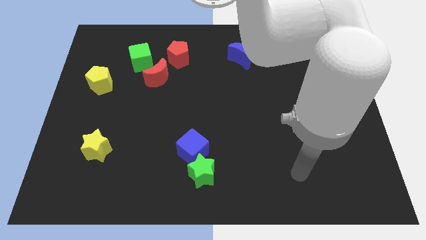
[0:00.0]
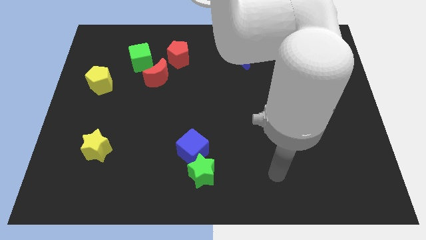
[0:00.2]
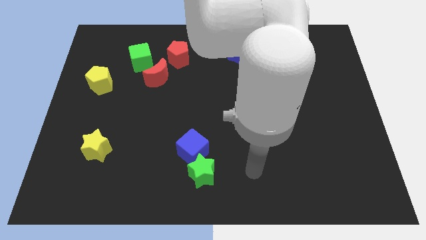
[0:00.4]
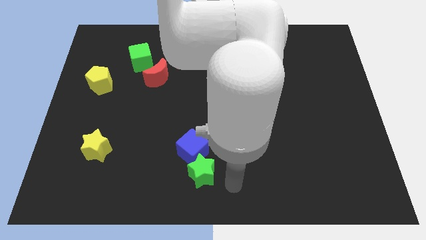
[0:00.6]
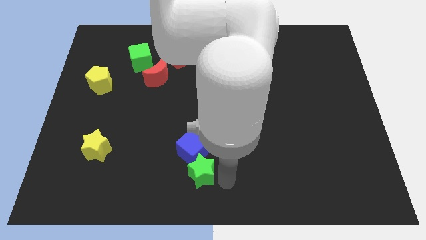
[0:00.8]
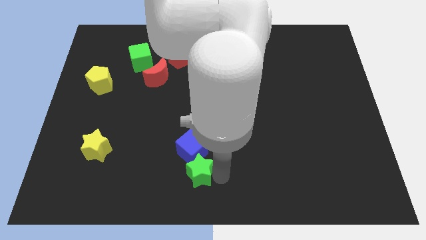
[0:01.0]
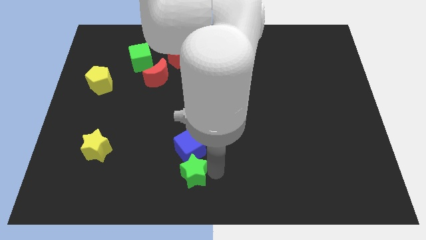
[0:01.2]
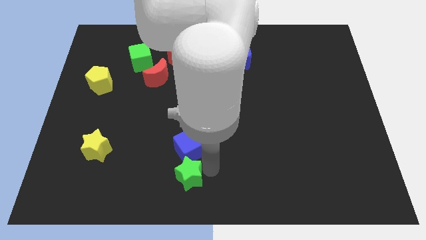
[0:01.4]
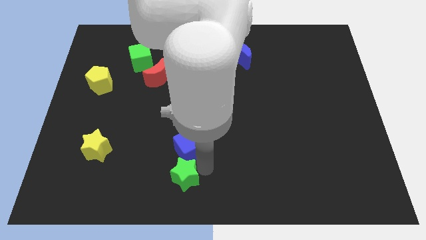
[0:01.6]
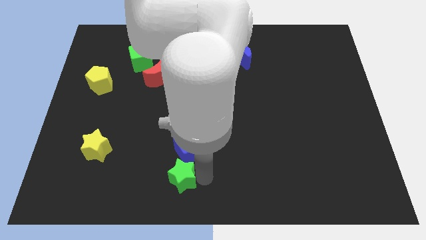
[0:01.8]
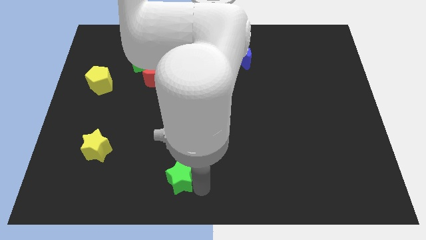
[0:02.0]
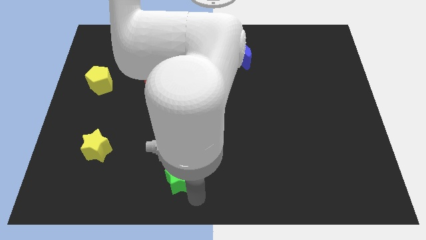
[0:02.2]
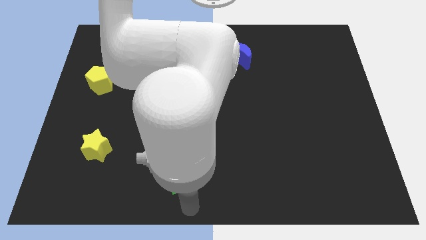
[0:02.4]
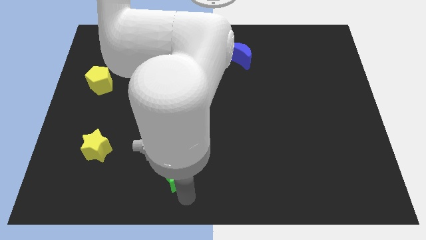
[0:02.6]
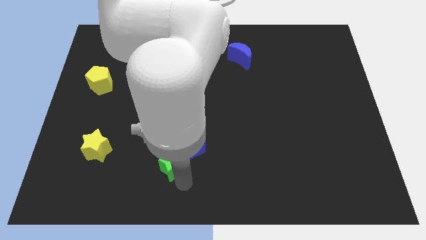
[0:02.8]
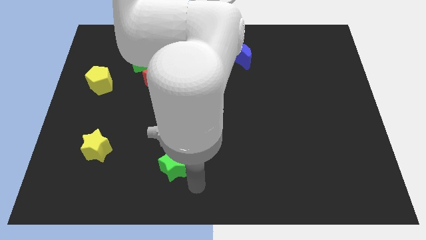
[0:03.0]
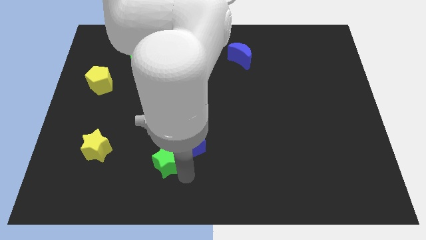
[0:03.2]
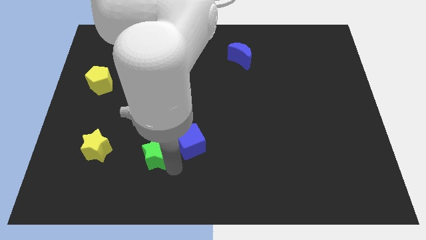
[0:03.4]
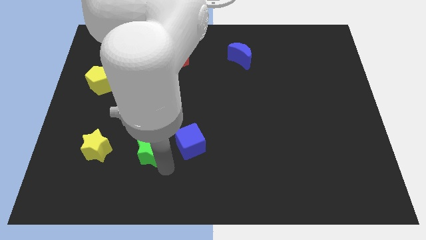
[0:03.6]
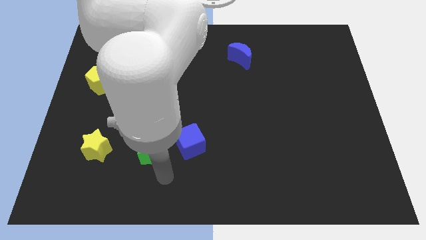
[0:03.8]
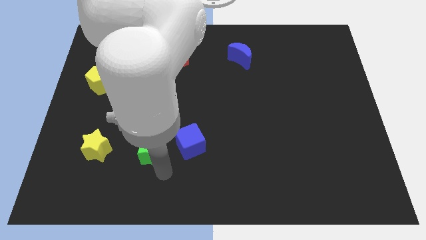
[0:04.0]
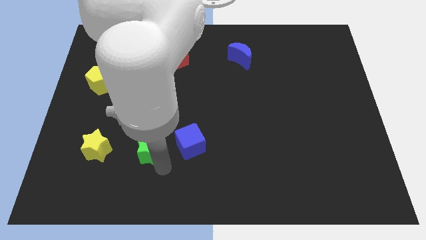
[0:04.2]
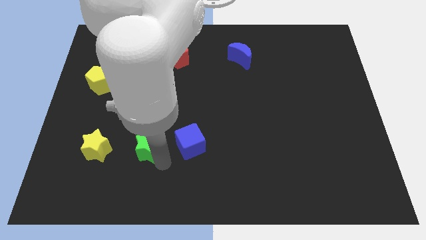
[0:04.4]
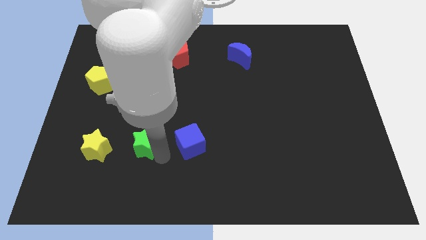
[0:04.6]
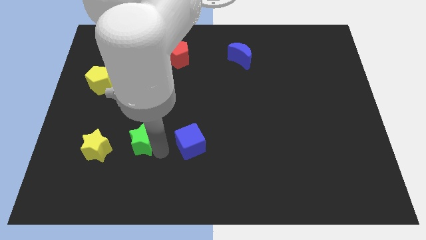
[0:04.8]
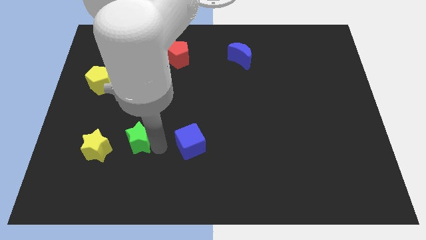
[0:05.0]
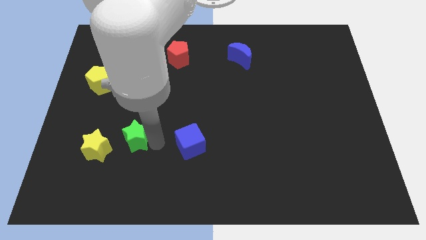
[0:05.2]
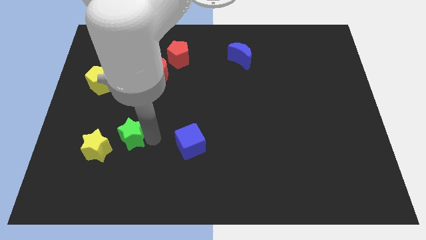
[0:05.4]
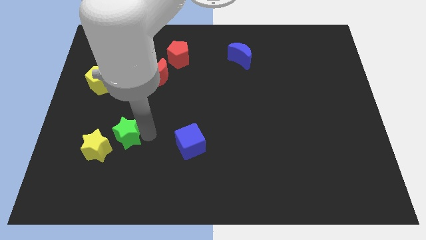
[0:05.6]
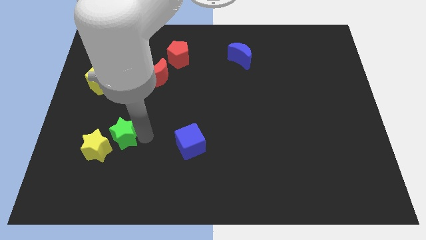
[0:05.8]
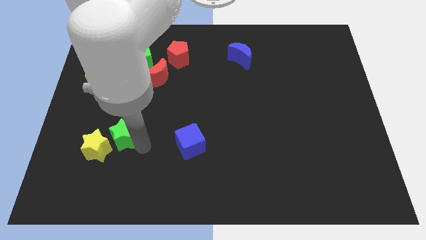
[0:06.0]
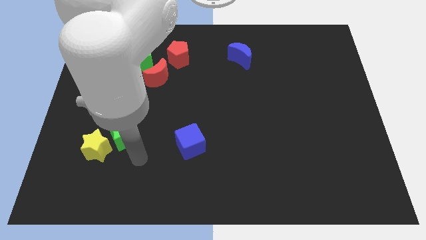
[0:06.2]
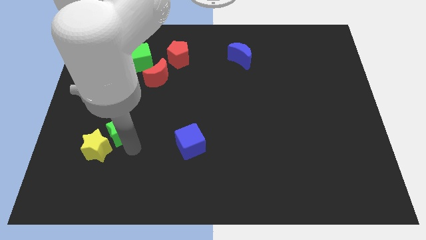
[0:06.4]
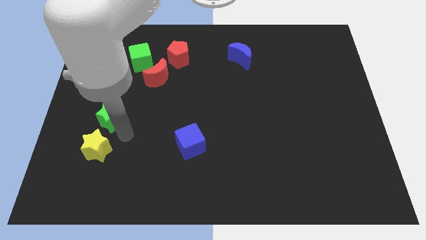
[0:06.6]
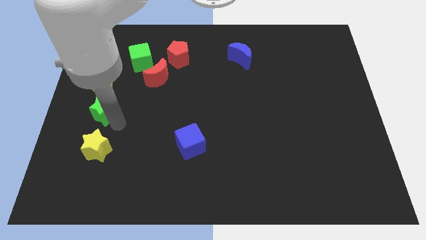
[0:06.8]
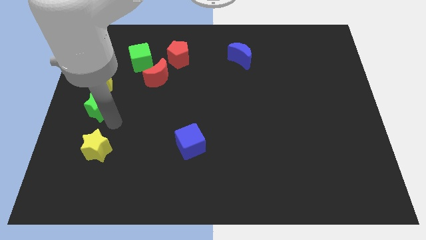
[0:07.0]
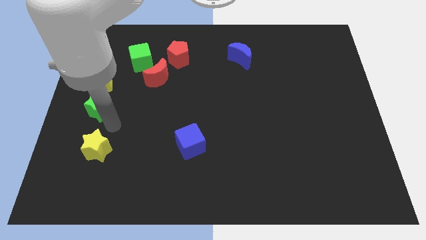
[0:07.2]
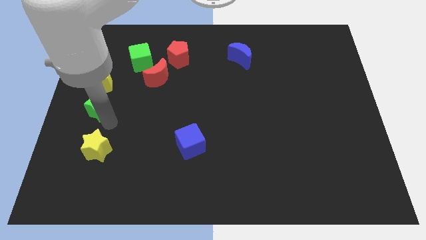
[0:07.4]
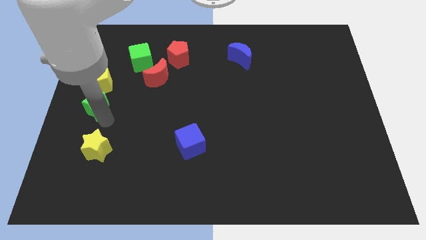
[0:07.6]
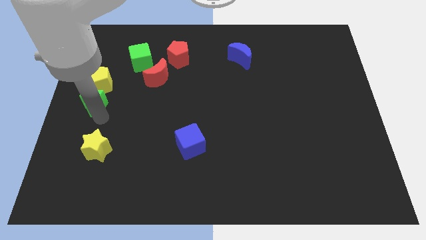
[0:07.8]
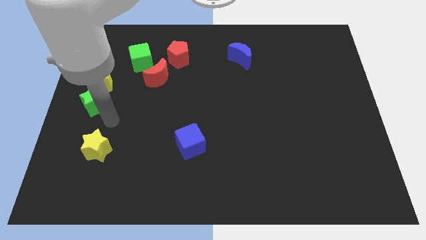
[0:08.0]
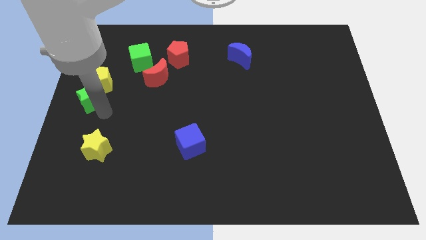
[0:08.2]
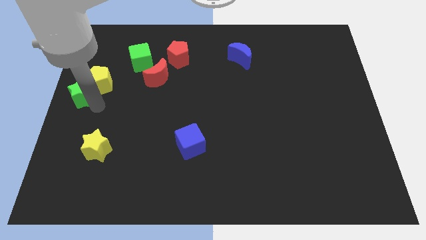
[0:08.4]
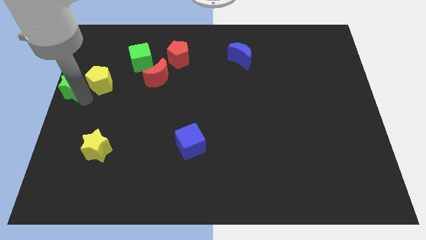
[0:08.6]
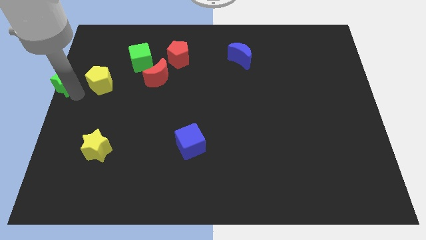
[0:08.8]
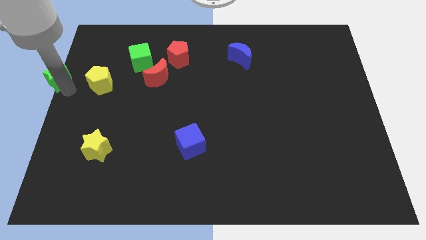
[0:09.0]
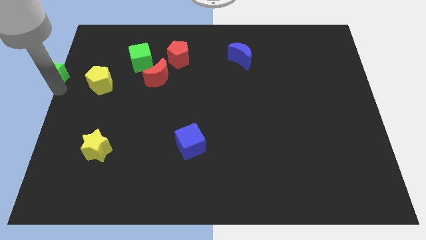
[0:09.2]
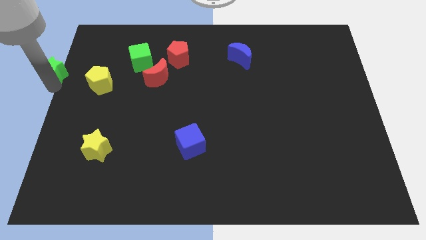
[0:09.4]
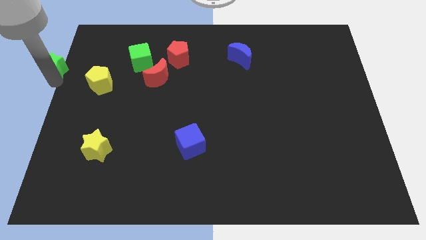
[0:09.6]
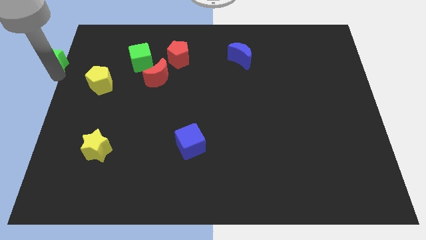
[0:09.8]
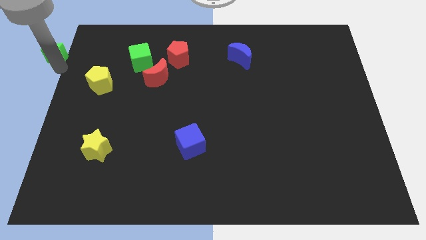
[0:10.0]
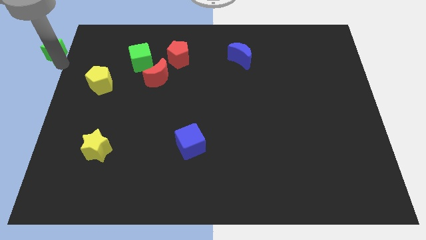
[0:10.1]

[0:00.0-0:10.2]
put the green star to the top left of the board
